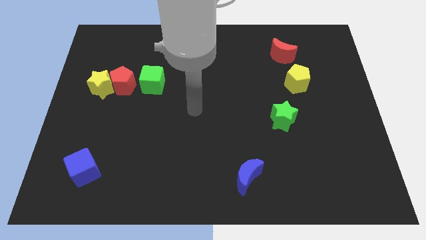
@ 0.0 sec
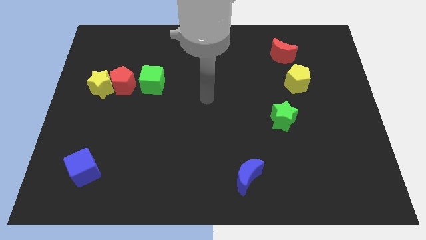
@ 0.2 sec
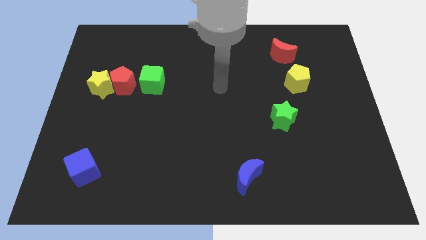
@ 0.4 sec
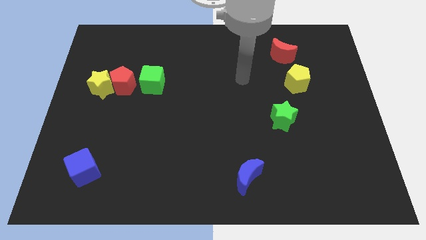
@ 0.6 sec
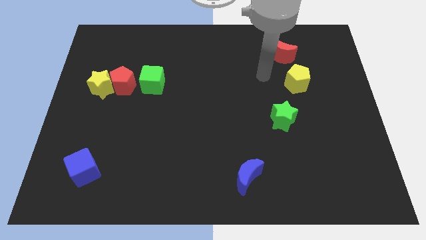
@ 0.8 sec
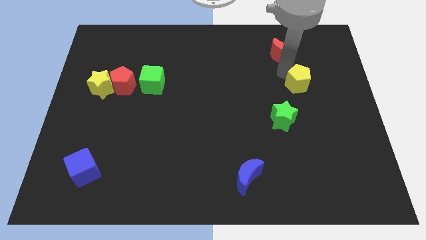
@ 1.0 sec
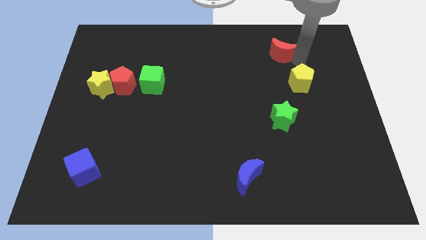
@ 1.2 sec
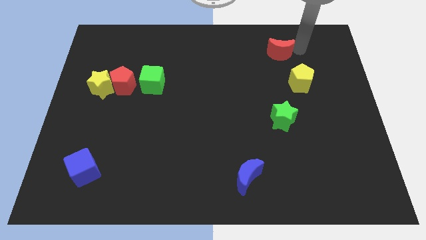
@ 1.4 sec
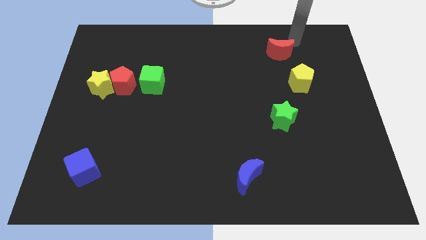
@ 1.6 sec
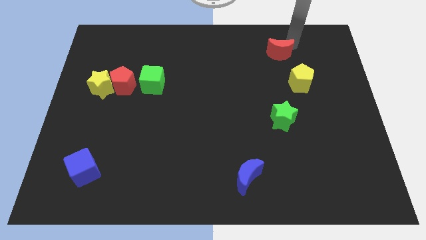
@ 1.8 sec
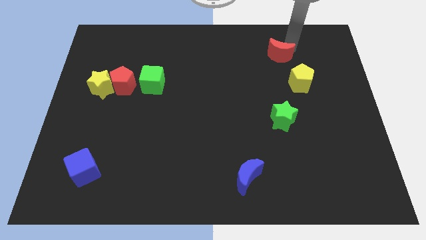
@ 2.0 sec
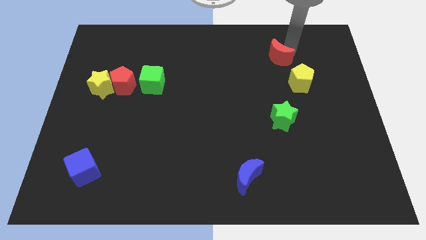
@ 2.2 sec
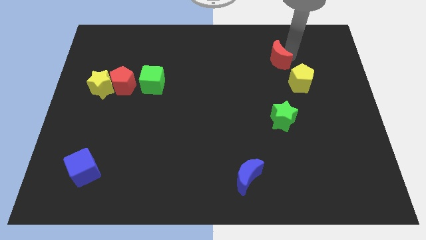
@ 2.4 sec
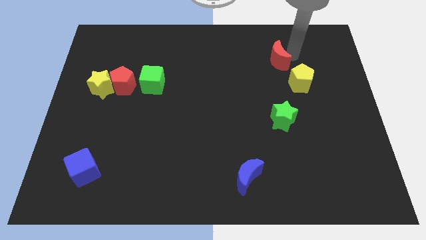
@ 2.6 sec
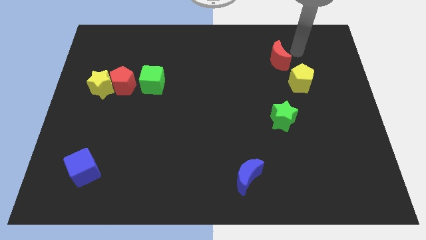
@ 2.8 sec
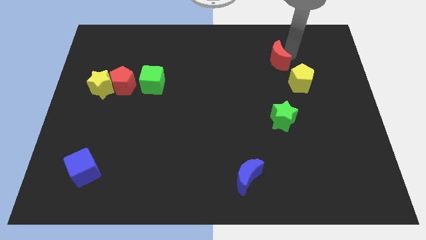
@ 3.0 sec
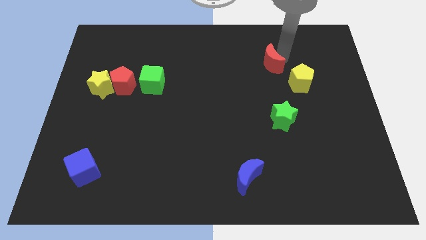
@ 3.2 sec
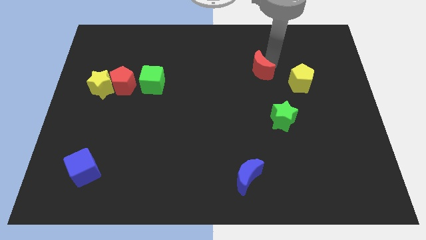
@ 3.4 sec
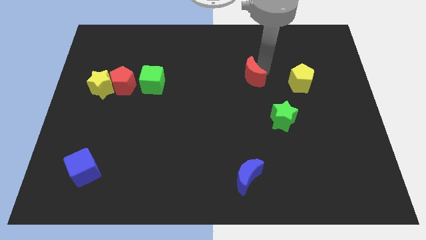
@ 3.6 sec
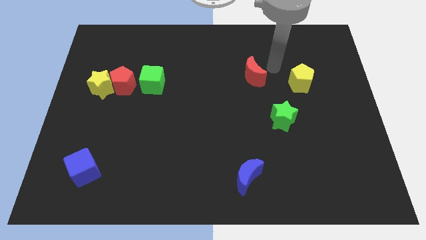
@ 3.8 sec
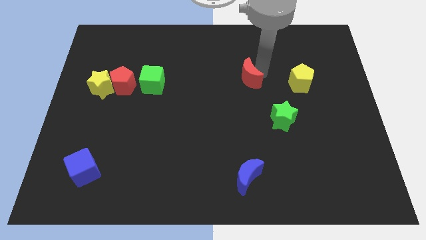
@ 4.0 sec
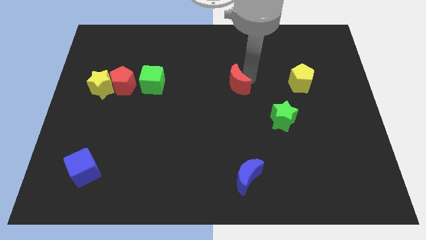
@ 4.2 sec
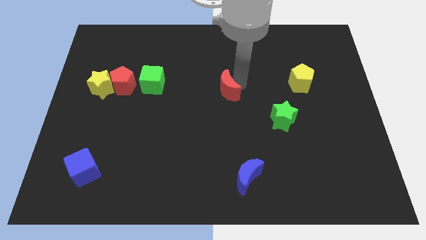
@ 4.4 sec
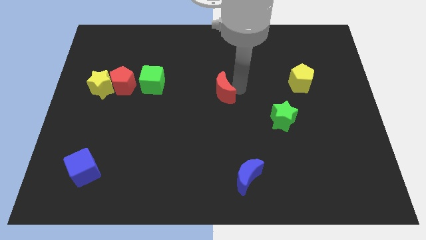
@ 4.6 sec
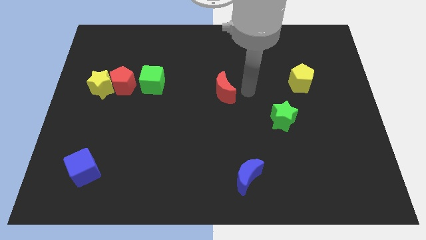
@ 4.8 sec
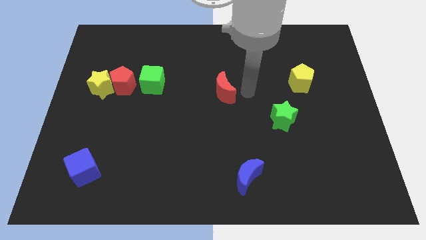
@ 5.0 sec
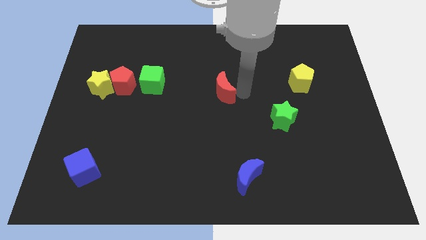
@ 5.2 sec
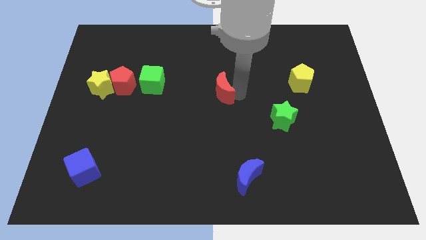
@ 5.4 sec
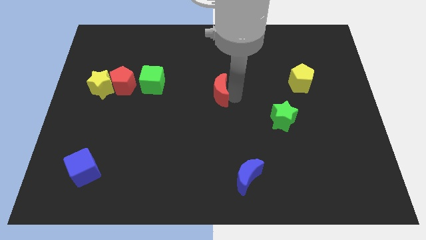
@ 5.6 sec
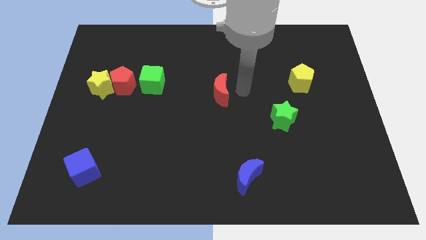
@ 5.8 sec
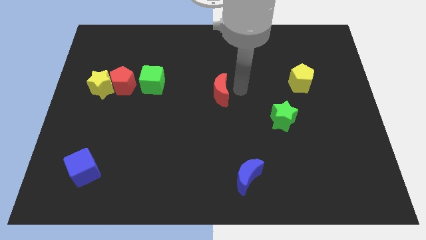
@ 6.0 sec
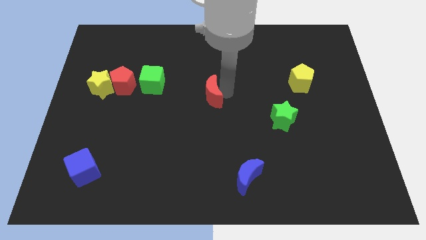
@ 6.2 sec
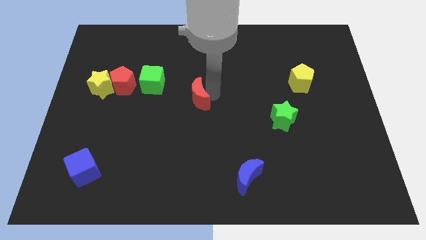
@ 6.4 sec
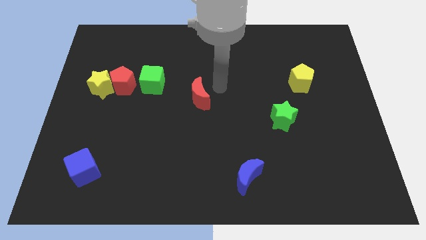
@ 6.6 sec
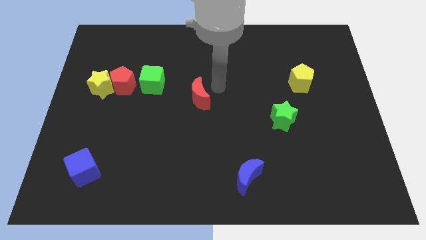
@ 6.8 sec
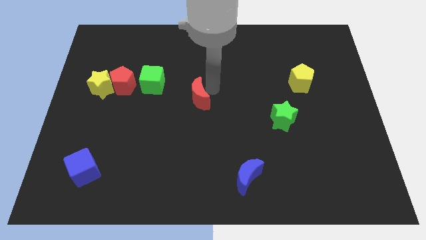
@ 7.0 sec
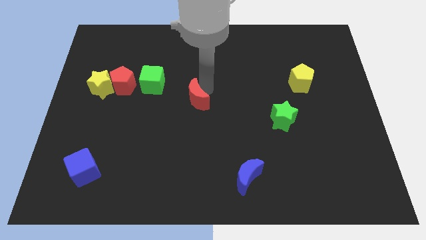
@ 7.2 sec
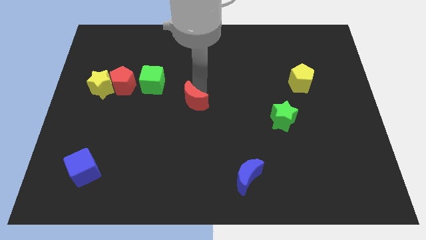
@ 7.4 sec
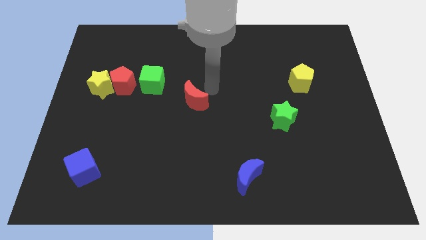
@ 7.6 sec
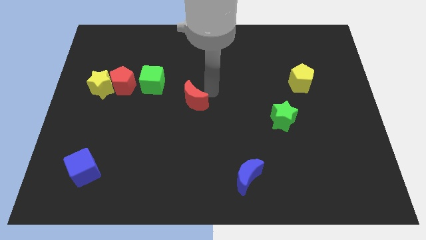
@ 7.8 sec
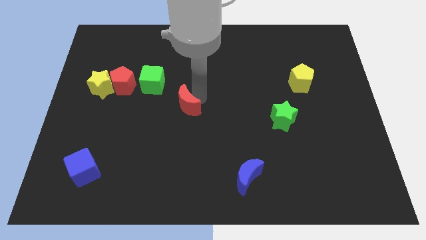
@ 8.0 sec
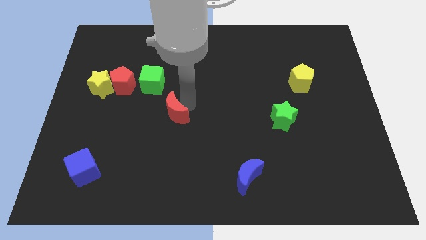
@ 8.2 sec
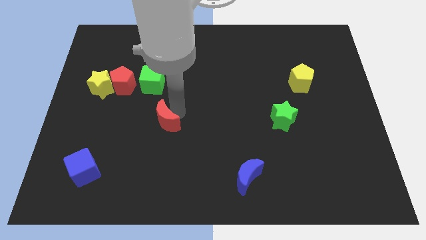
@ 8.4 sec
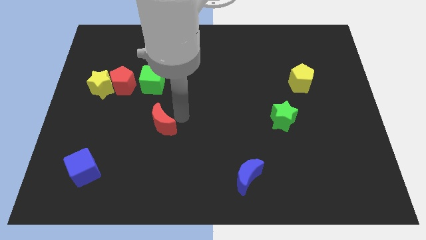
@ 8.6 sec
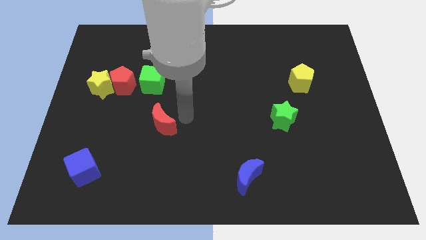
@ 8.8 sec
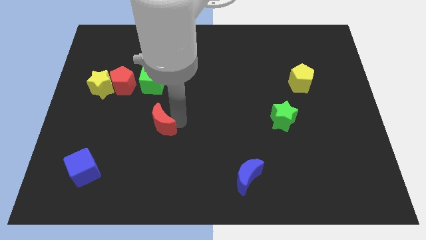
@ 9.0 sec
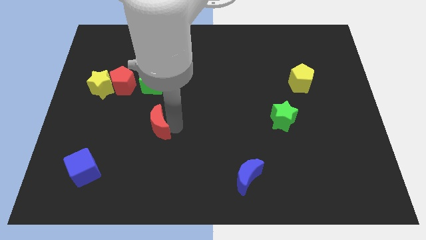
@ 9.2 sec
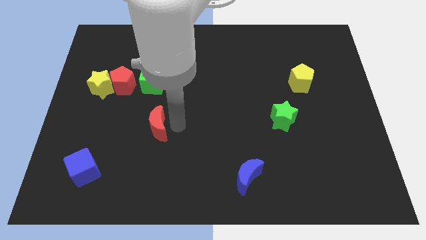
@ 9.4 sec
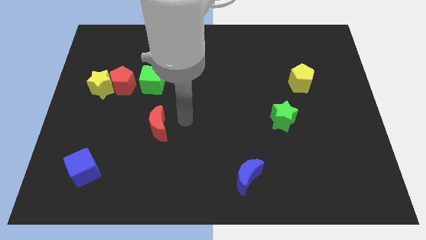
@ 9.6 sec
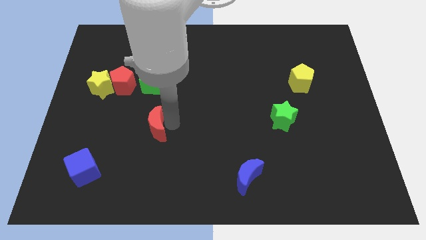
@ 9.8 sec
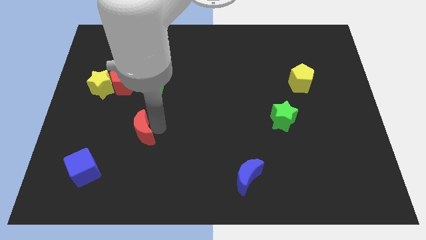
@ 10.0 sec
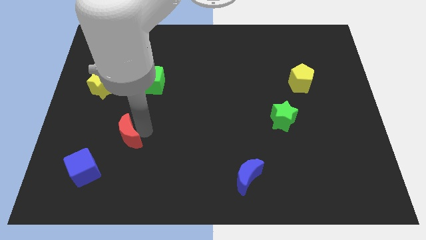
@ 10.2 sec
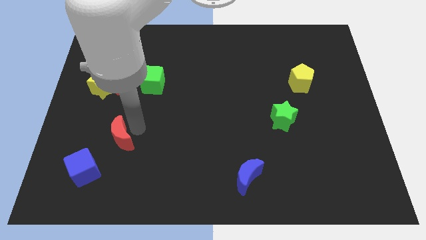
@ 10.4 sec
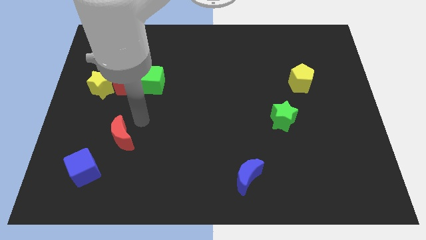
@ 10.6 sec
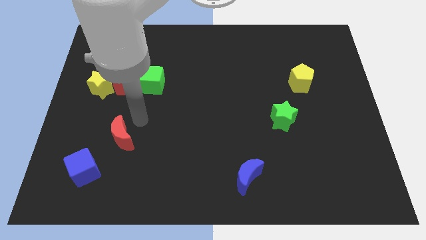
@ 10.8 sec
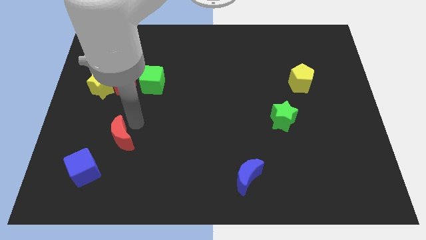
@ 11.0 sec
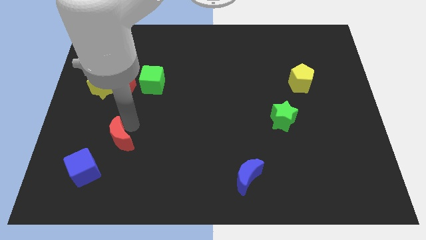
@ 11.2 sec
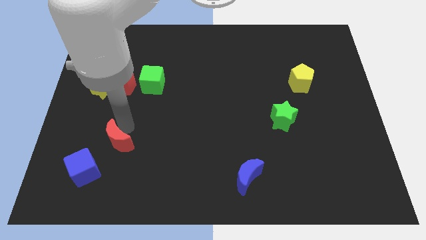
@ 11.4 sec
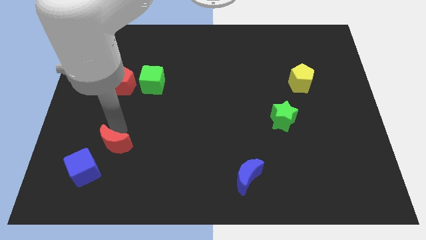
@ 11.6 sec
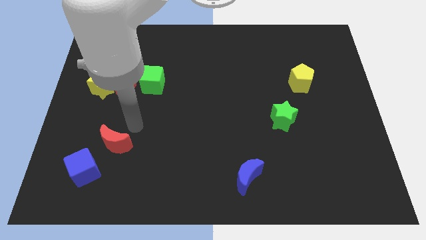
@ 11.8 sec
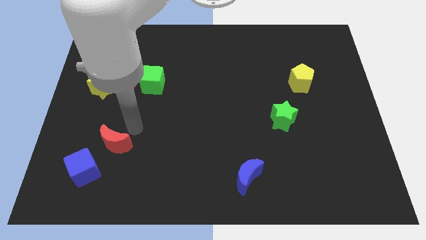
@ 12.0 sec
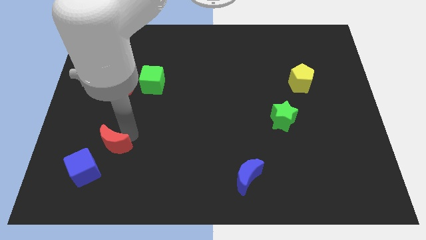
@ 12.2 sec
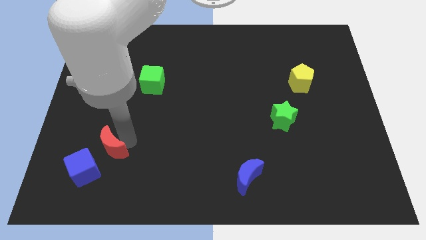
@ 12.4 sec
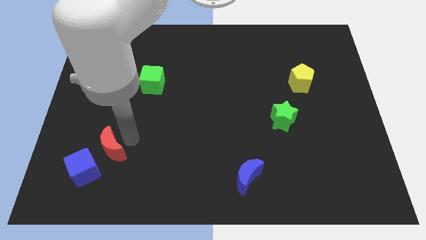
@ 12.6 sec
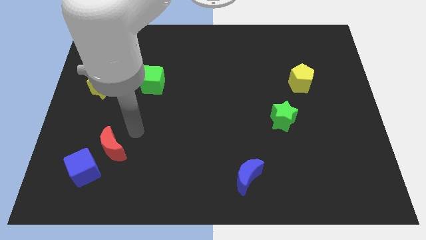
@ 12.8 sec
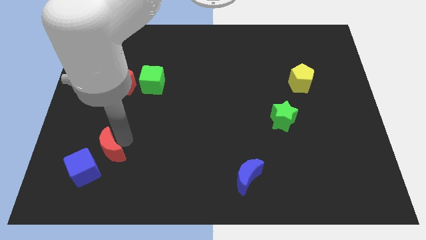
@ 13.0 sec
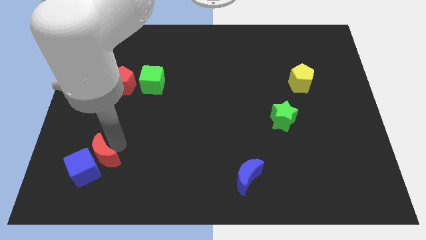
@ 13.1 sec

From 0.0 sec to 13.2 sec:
push the red moon towards the blue cube
